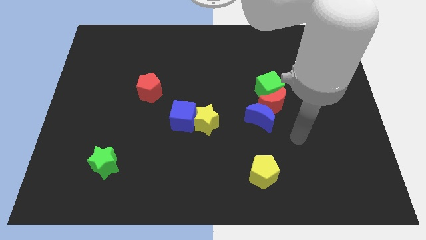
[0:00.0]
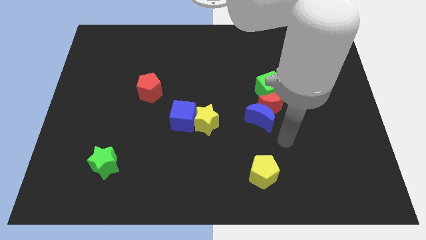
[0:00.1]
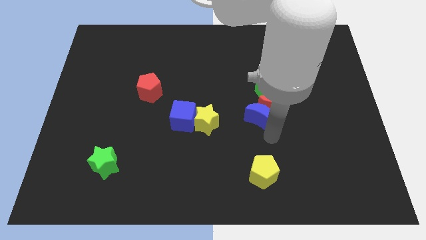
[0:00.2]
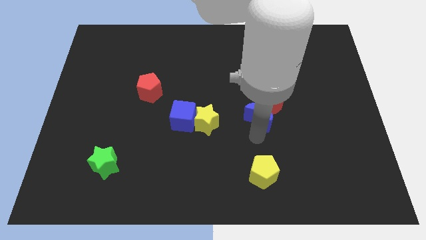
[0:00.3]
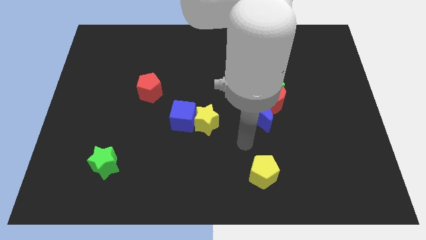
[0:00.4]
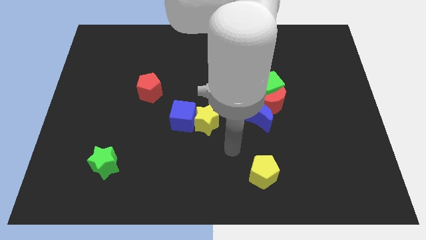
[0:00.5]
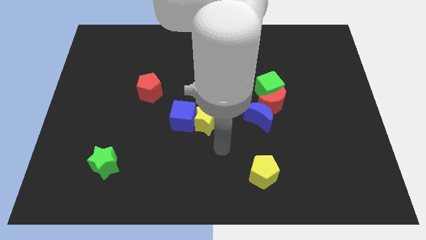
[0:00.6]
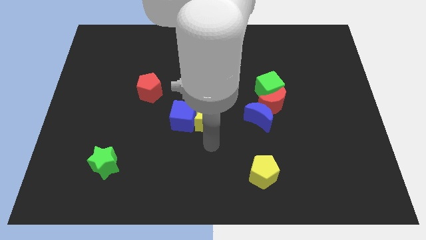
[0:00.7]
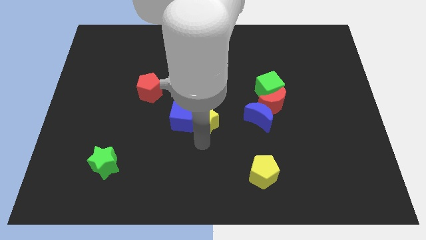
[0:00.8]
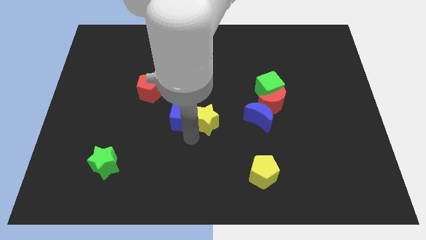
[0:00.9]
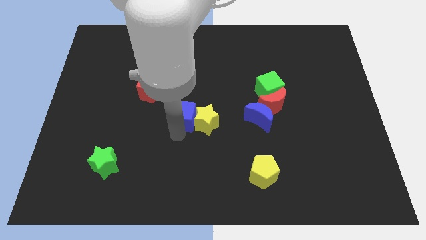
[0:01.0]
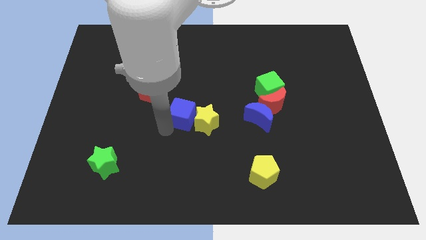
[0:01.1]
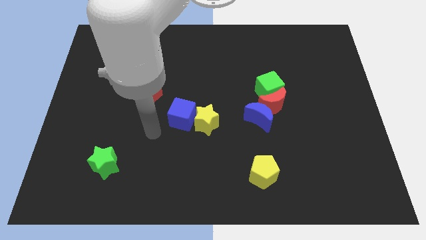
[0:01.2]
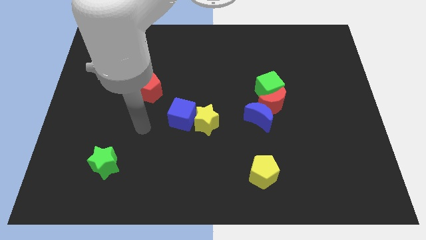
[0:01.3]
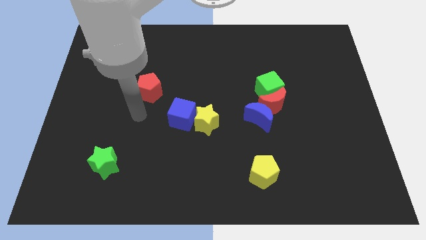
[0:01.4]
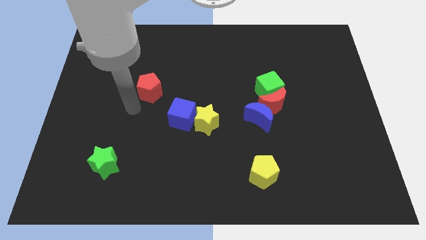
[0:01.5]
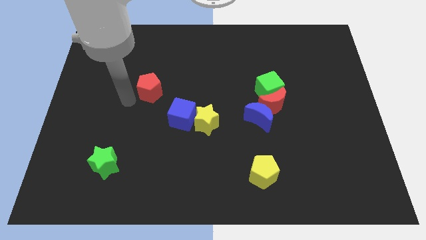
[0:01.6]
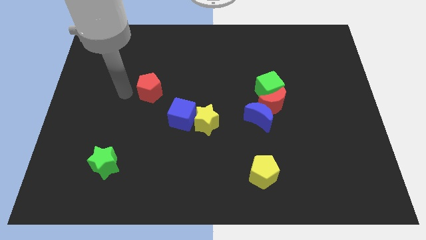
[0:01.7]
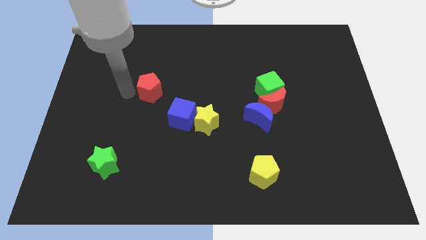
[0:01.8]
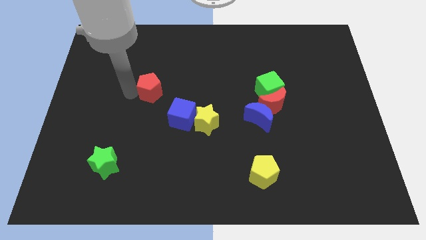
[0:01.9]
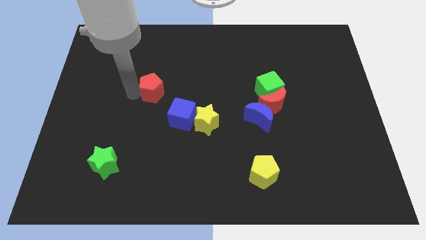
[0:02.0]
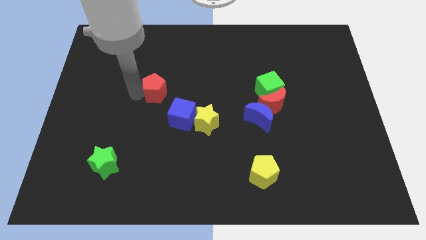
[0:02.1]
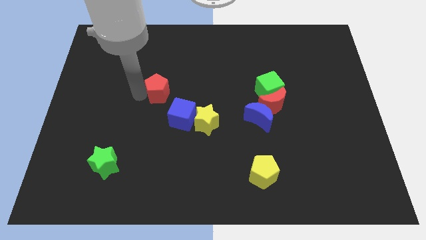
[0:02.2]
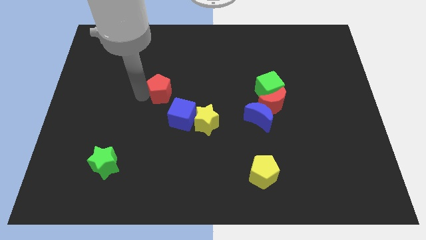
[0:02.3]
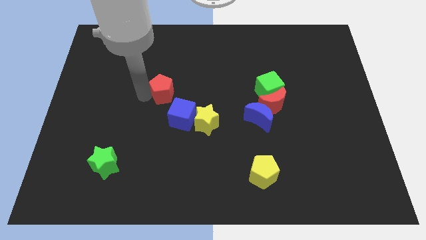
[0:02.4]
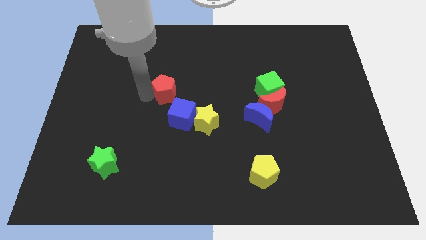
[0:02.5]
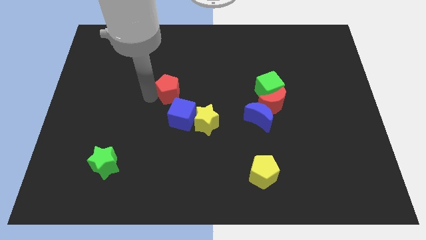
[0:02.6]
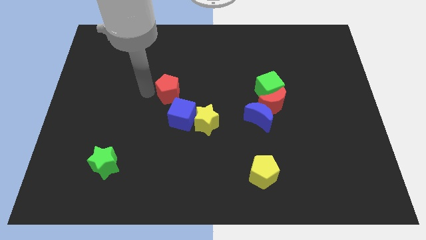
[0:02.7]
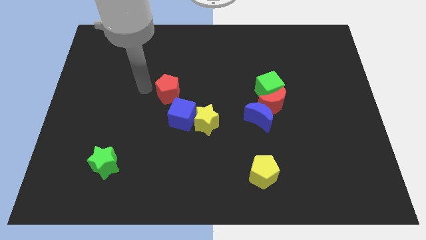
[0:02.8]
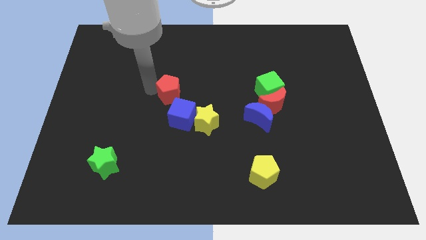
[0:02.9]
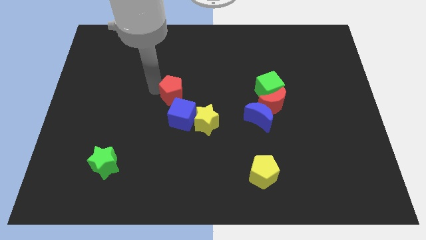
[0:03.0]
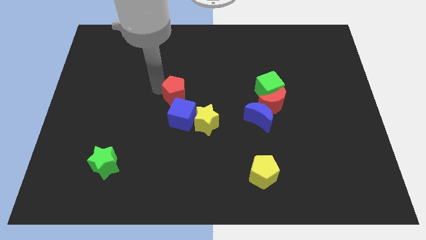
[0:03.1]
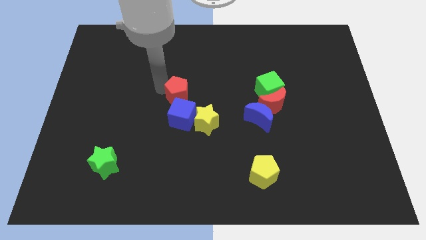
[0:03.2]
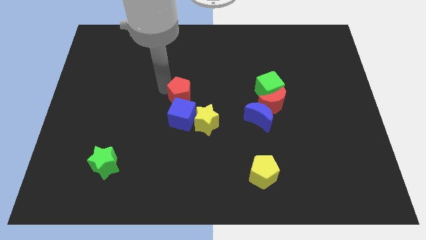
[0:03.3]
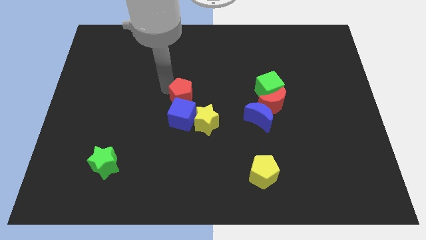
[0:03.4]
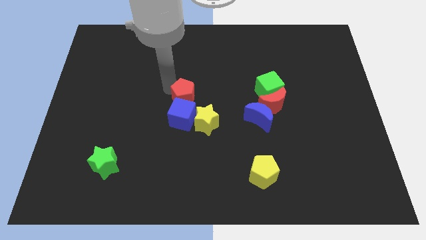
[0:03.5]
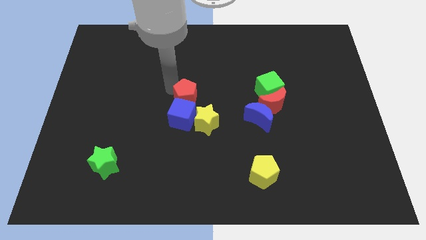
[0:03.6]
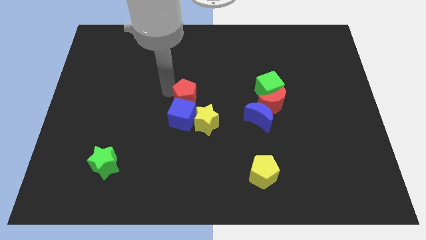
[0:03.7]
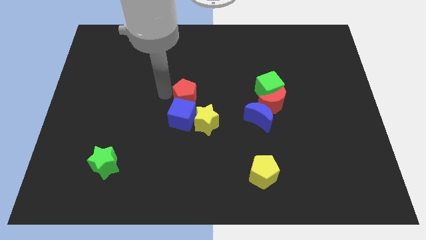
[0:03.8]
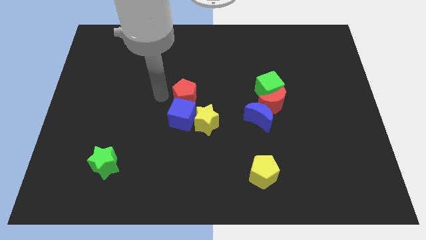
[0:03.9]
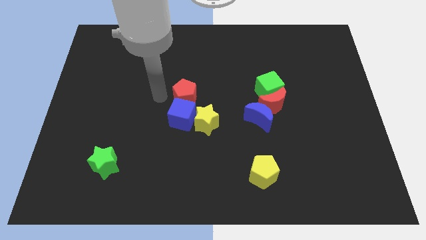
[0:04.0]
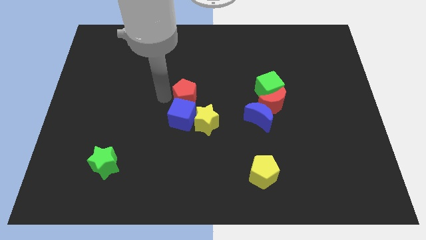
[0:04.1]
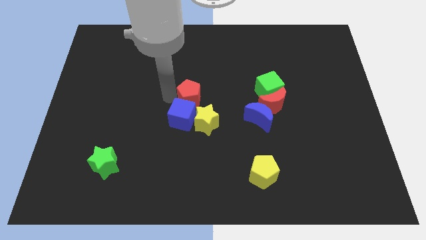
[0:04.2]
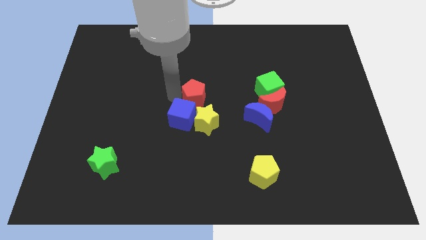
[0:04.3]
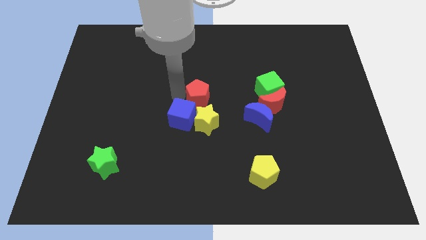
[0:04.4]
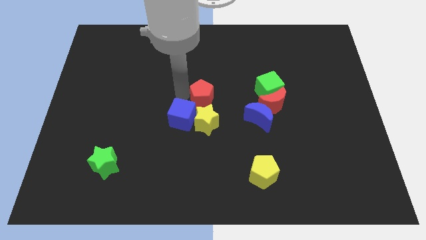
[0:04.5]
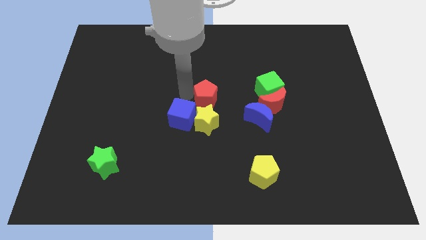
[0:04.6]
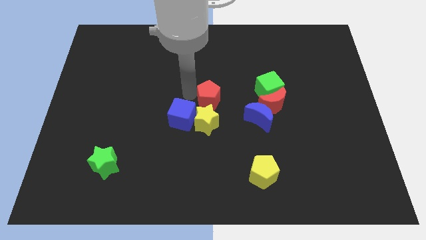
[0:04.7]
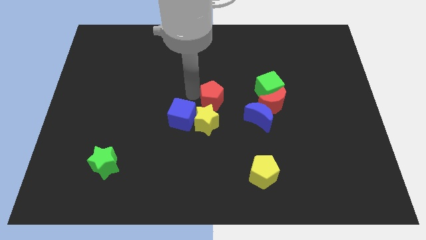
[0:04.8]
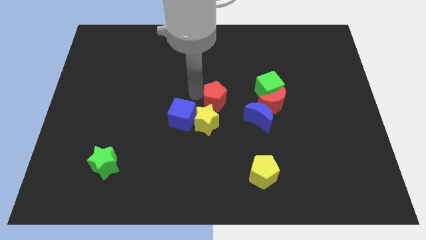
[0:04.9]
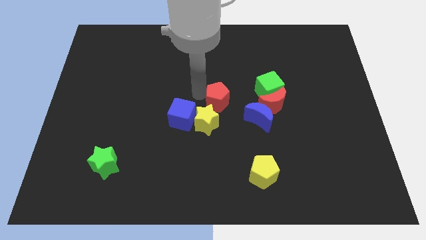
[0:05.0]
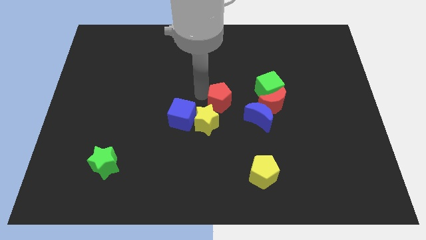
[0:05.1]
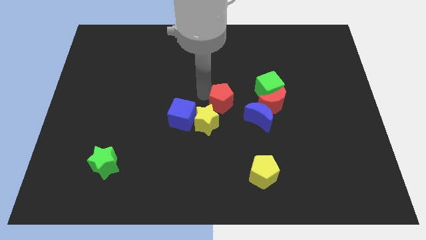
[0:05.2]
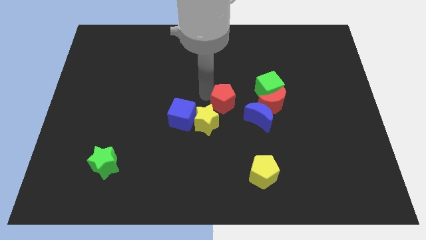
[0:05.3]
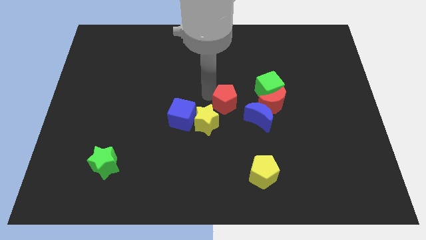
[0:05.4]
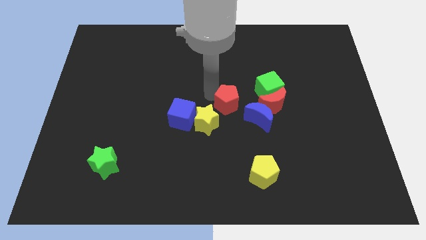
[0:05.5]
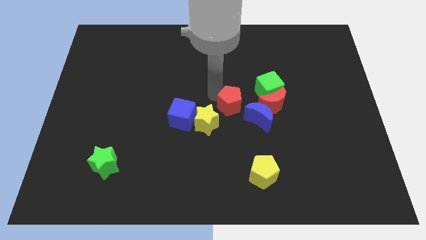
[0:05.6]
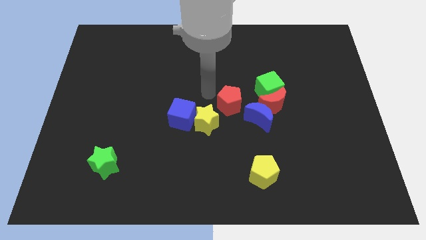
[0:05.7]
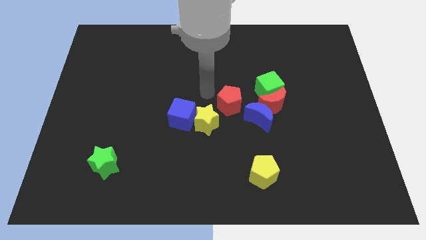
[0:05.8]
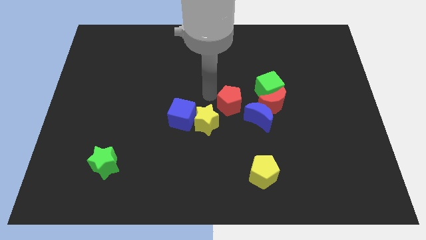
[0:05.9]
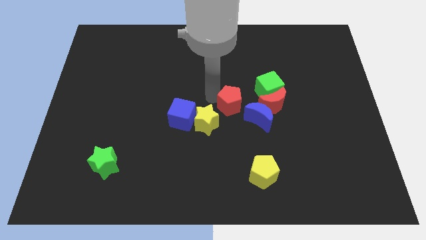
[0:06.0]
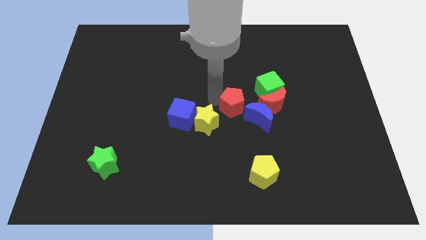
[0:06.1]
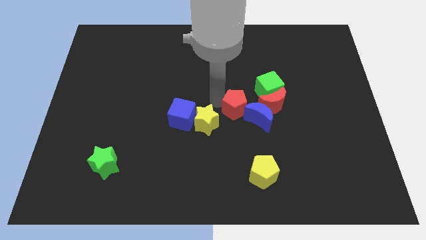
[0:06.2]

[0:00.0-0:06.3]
push the red pentagon towards the blue moon

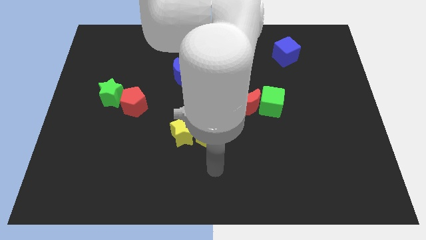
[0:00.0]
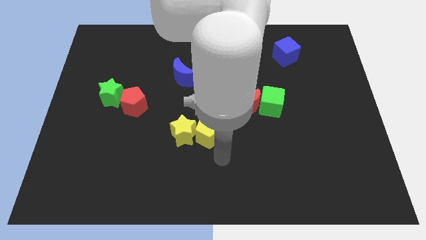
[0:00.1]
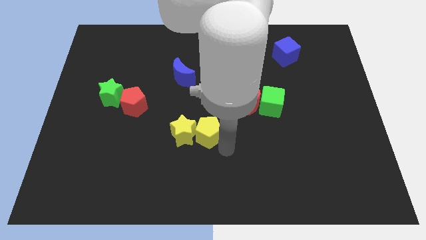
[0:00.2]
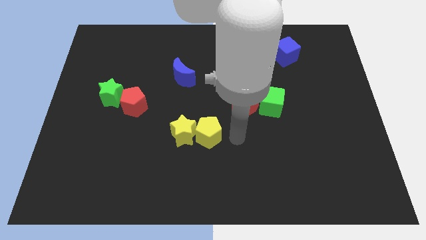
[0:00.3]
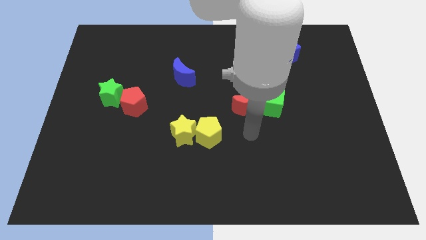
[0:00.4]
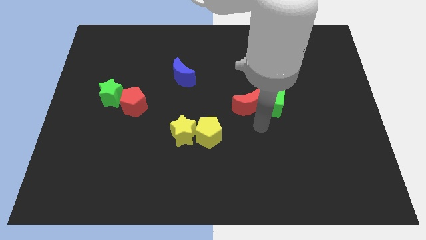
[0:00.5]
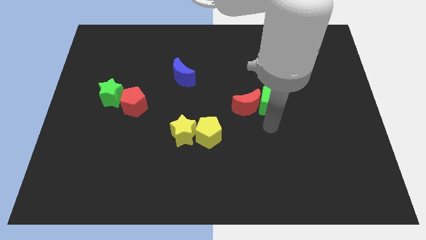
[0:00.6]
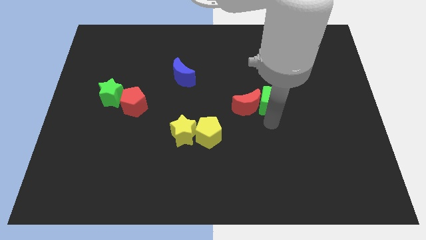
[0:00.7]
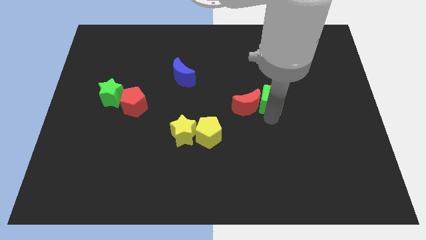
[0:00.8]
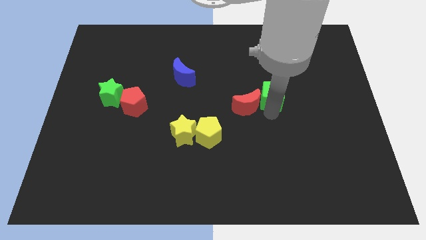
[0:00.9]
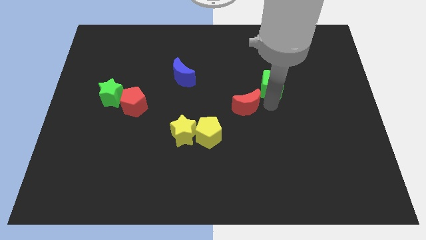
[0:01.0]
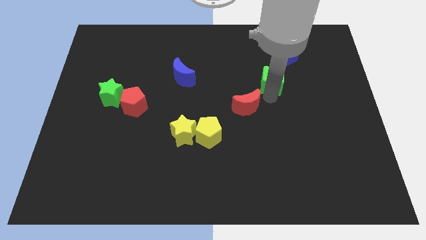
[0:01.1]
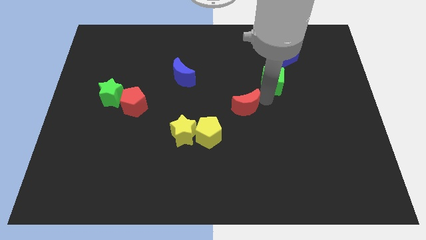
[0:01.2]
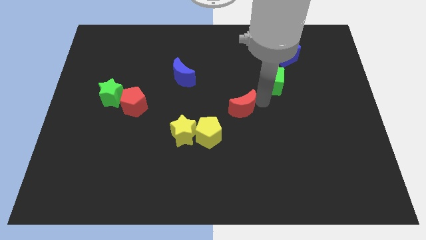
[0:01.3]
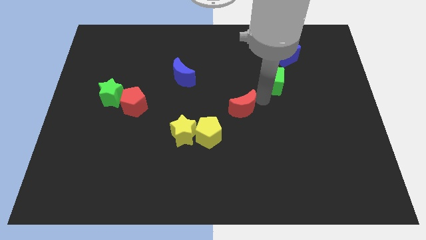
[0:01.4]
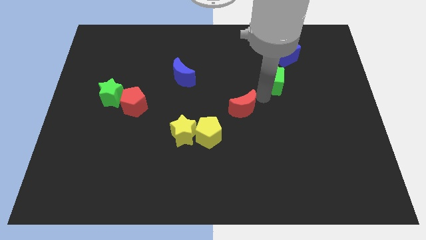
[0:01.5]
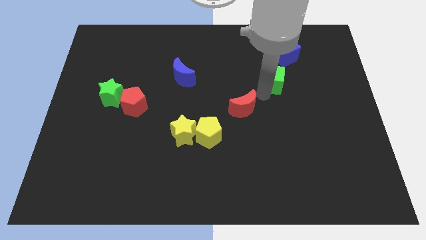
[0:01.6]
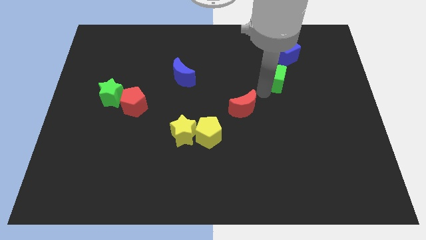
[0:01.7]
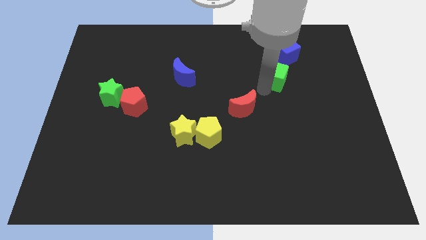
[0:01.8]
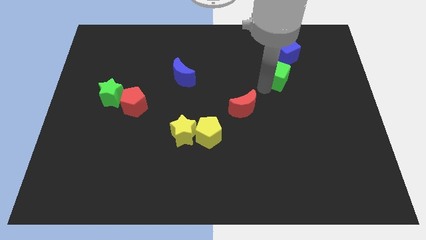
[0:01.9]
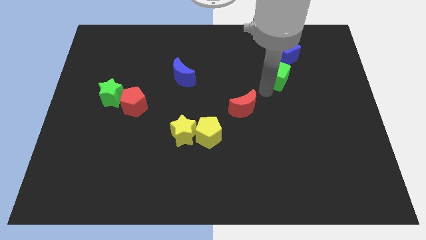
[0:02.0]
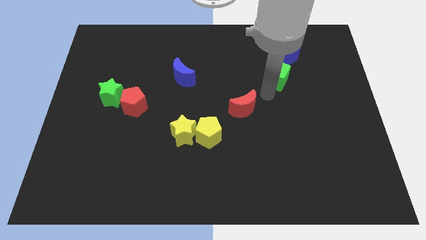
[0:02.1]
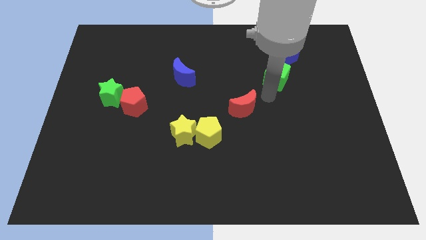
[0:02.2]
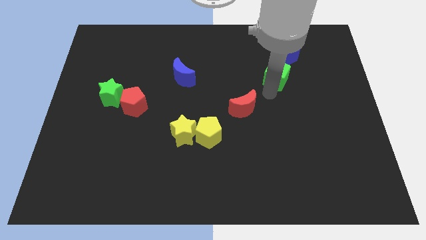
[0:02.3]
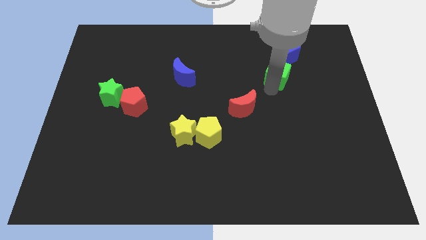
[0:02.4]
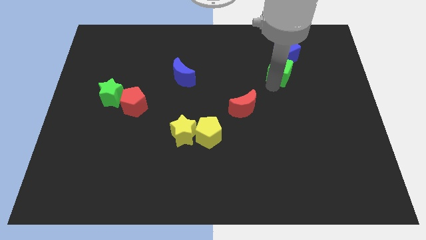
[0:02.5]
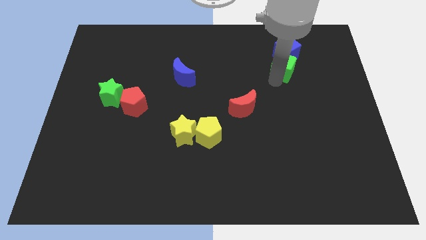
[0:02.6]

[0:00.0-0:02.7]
slide the green cube next to the blue cube
